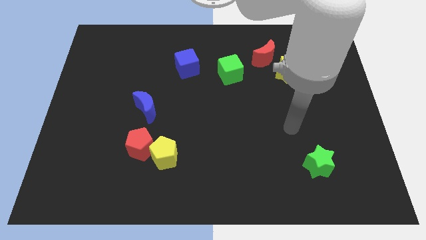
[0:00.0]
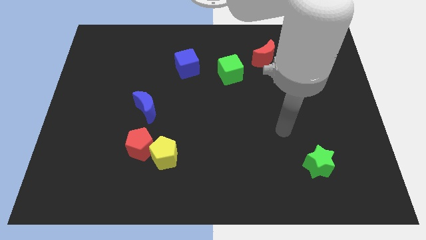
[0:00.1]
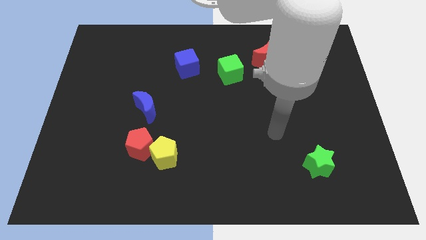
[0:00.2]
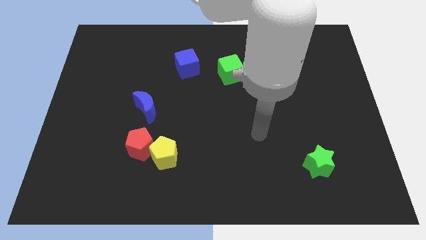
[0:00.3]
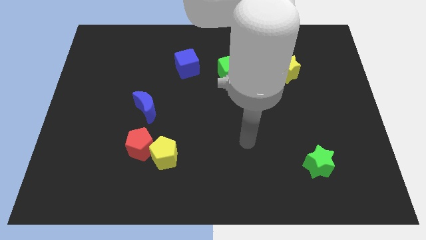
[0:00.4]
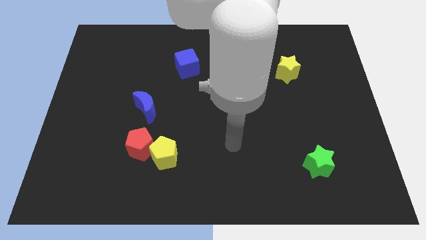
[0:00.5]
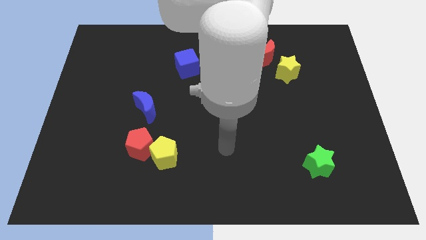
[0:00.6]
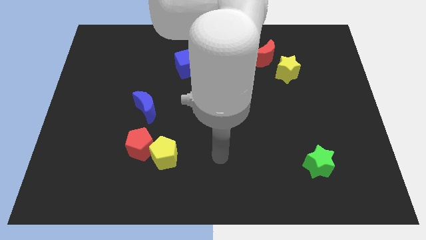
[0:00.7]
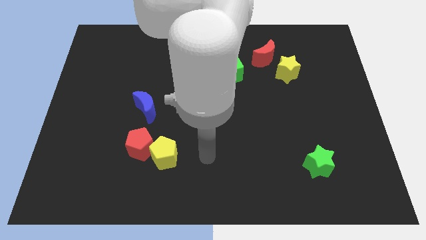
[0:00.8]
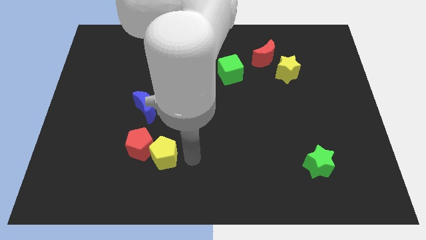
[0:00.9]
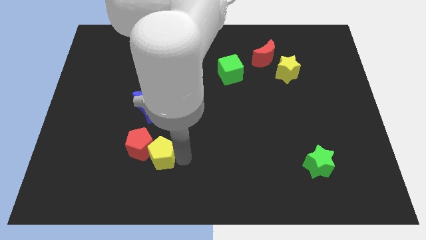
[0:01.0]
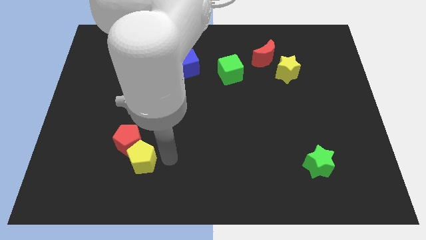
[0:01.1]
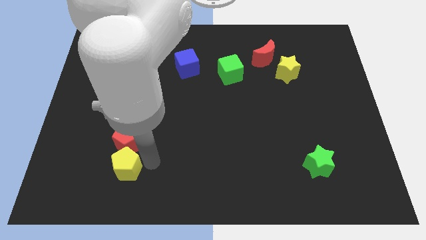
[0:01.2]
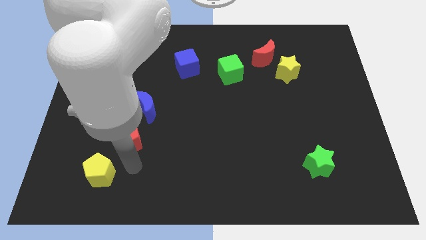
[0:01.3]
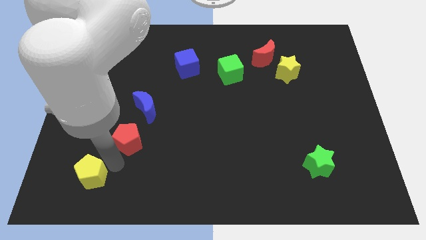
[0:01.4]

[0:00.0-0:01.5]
move the red pentagon away from the yellow pentagon

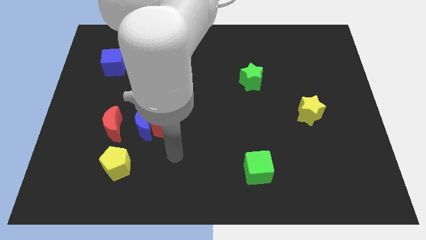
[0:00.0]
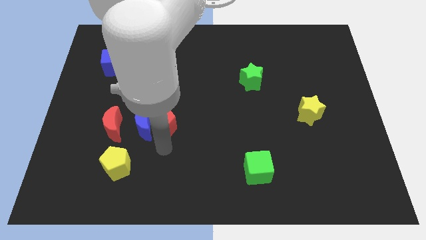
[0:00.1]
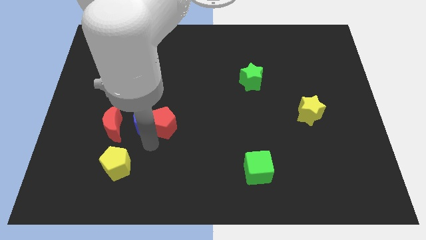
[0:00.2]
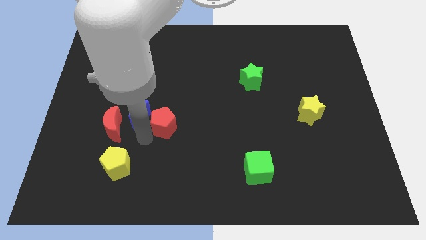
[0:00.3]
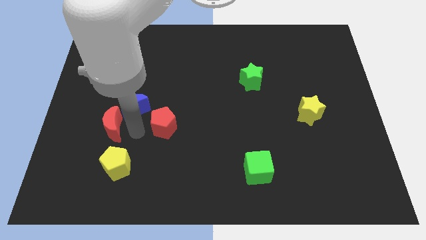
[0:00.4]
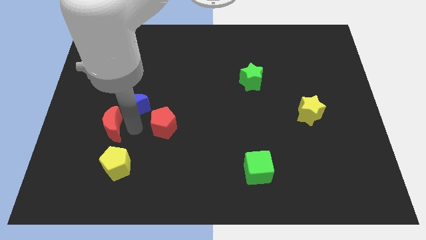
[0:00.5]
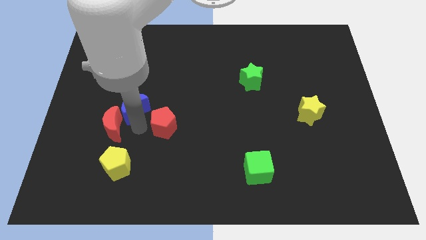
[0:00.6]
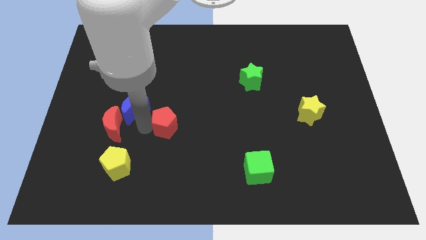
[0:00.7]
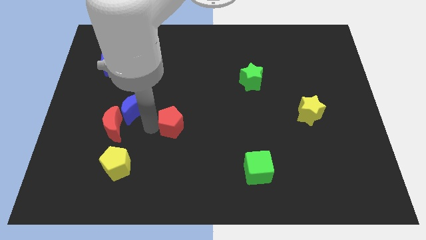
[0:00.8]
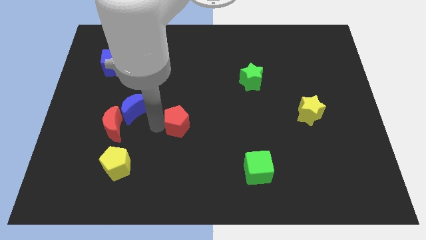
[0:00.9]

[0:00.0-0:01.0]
move the red pentagon away from the blue moon

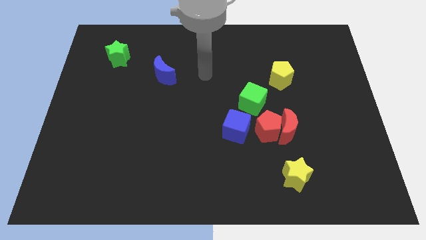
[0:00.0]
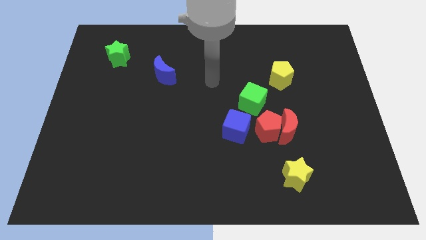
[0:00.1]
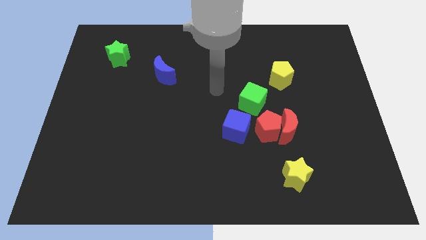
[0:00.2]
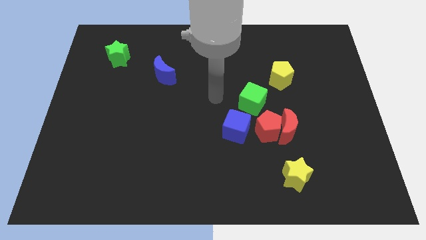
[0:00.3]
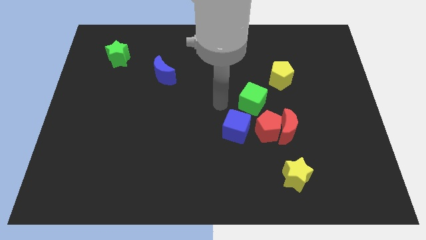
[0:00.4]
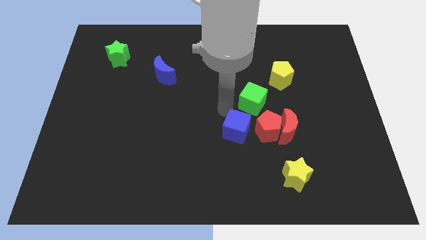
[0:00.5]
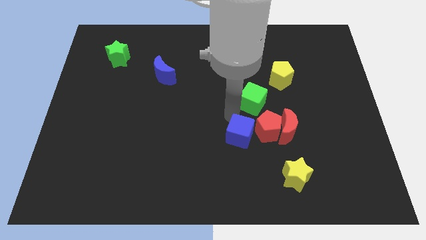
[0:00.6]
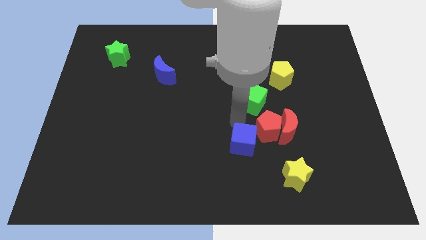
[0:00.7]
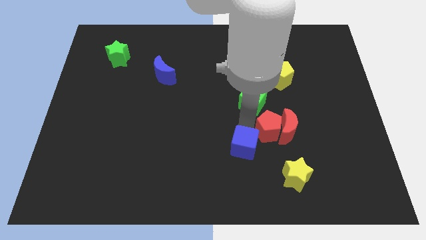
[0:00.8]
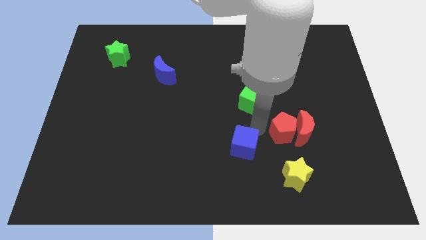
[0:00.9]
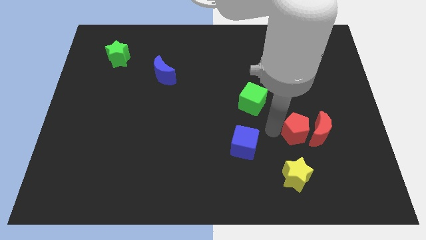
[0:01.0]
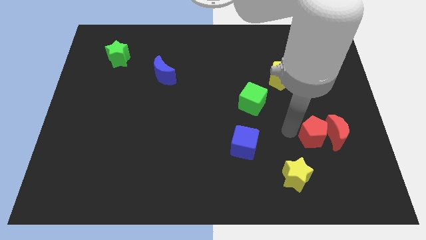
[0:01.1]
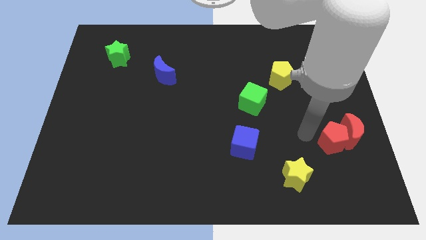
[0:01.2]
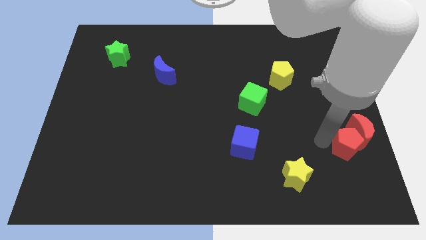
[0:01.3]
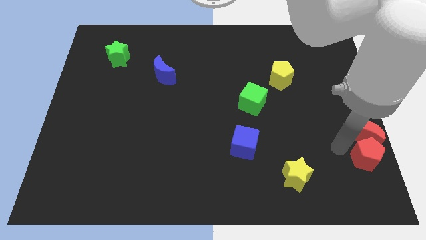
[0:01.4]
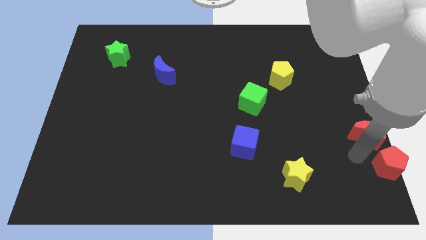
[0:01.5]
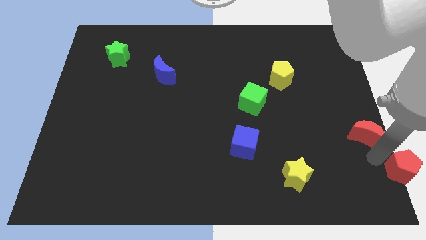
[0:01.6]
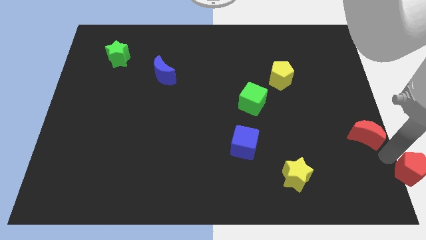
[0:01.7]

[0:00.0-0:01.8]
move the red moon away from the red pentagon

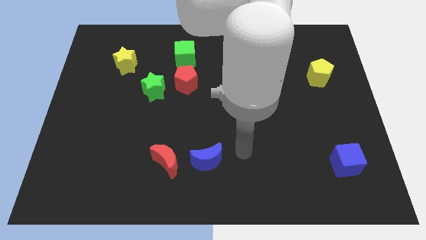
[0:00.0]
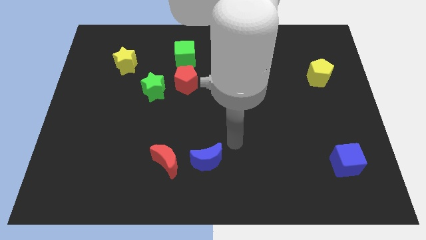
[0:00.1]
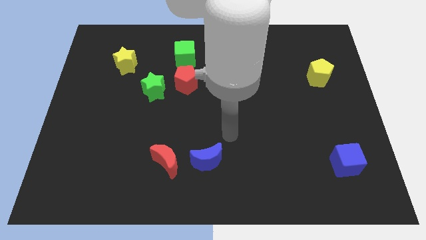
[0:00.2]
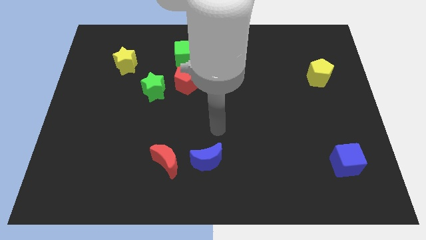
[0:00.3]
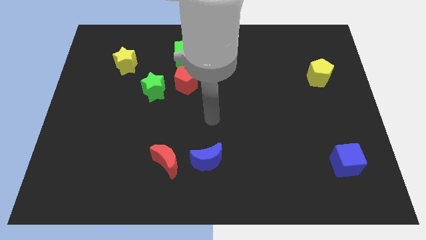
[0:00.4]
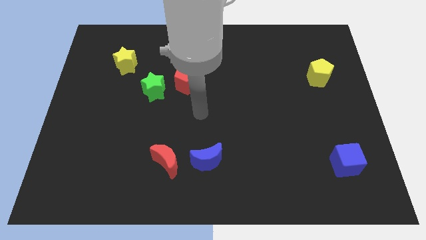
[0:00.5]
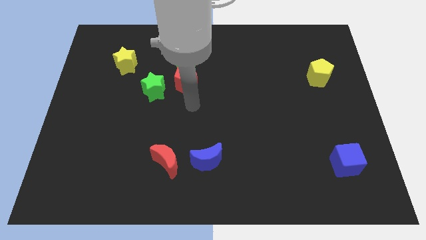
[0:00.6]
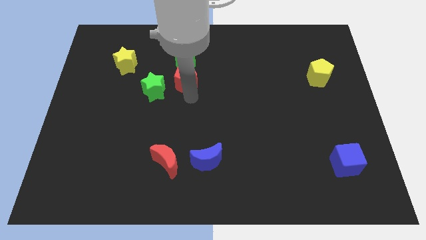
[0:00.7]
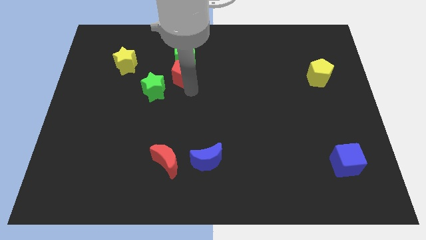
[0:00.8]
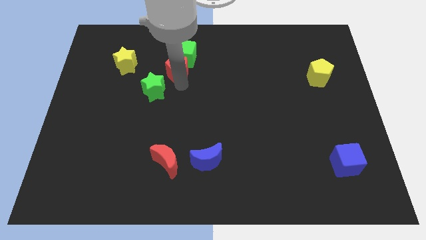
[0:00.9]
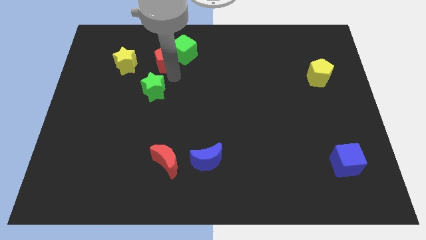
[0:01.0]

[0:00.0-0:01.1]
move the green star away from the red pentagon

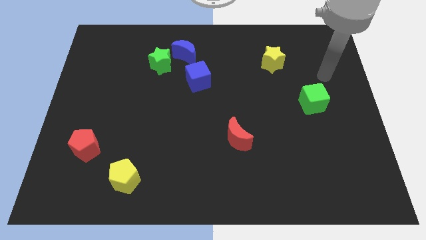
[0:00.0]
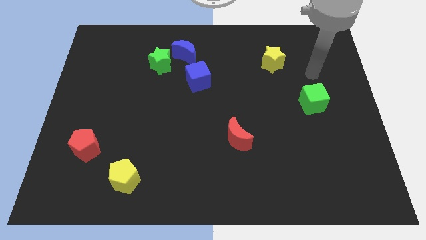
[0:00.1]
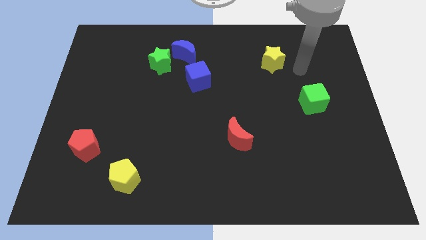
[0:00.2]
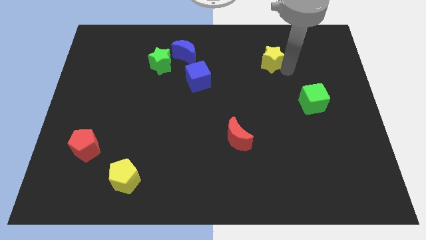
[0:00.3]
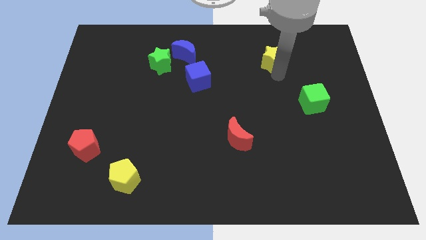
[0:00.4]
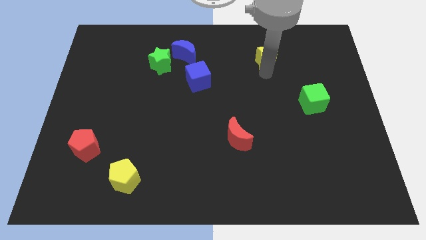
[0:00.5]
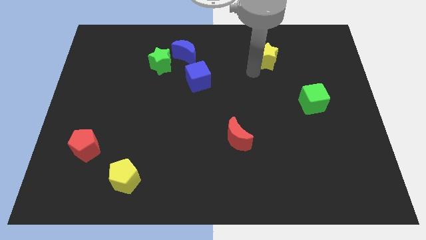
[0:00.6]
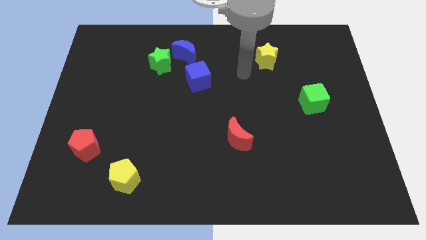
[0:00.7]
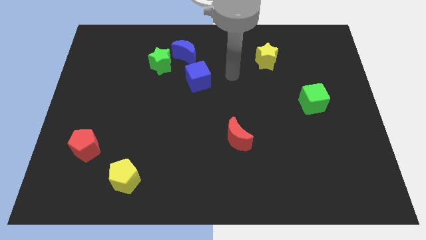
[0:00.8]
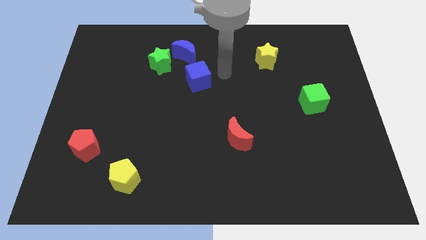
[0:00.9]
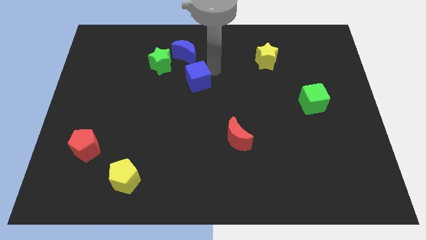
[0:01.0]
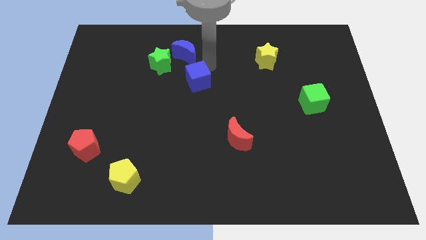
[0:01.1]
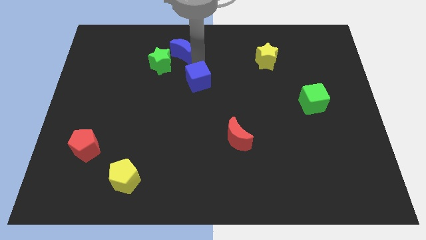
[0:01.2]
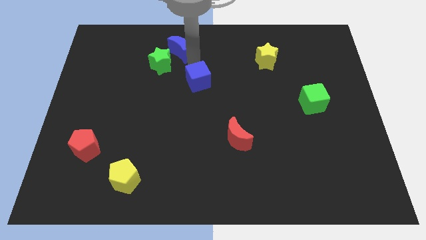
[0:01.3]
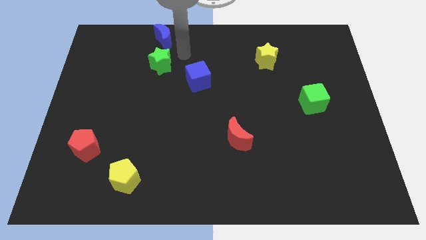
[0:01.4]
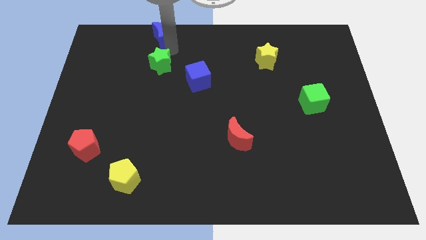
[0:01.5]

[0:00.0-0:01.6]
pull the green star apart from the blue moon

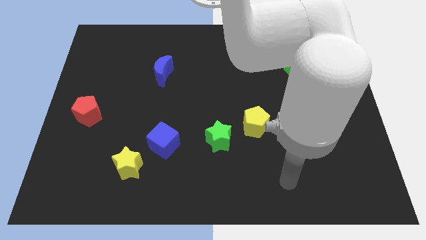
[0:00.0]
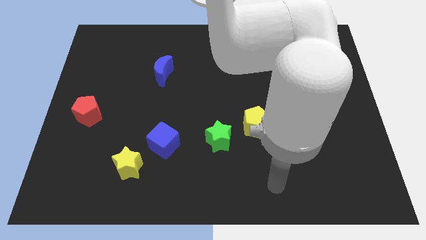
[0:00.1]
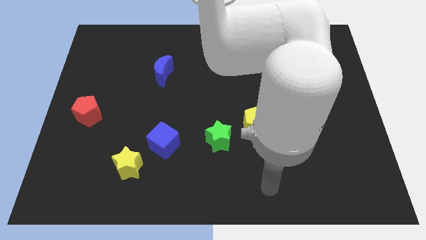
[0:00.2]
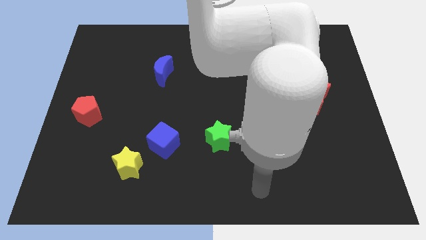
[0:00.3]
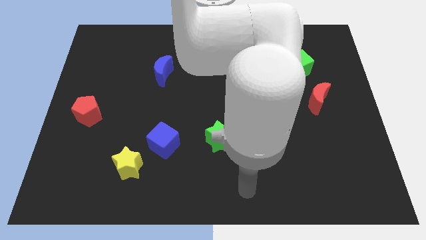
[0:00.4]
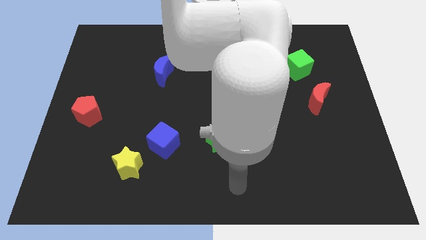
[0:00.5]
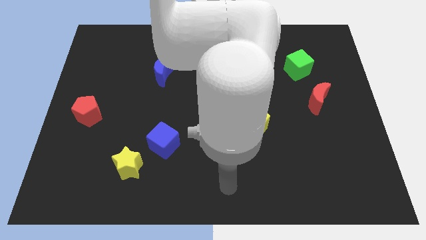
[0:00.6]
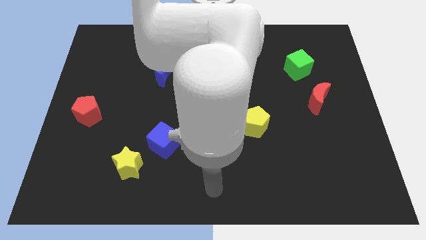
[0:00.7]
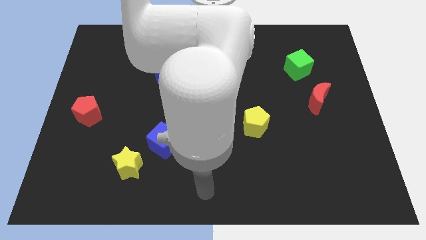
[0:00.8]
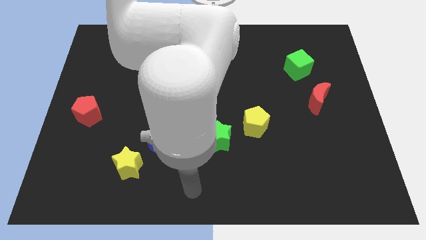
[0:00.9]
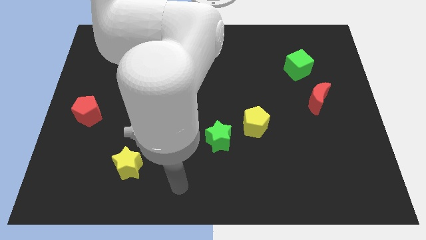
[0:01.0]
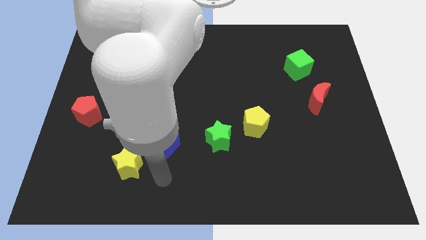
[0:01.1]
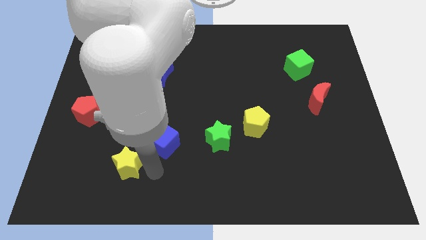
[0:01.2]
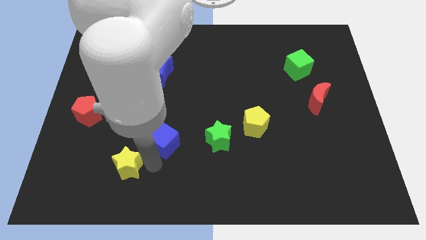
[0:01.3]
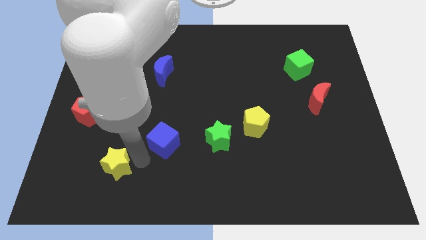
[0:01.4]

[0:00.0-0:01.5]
move the blue cube away from the yellow star

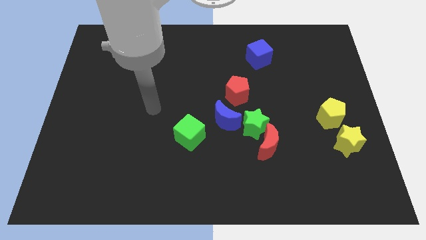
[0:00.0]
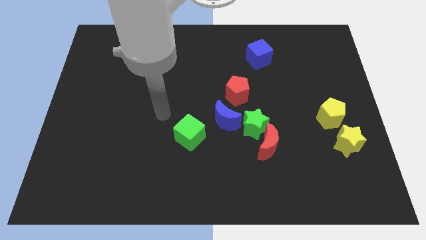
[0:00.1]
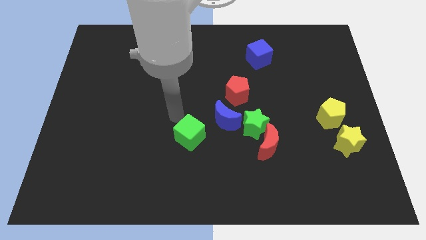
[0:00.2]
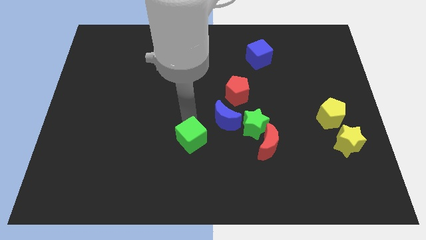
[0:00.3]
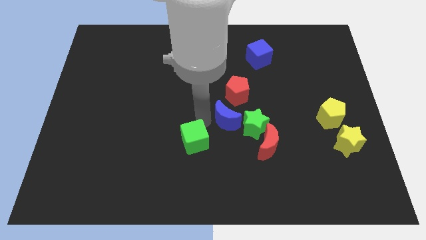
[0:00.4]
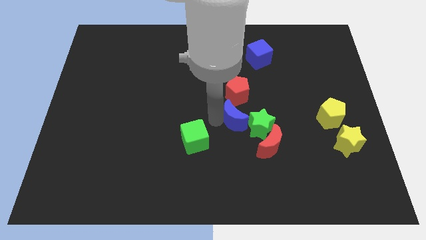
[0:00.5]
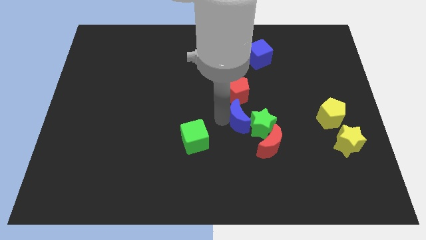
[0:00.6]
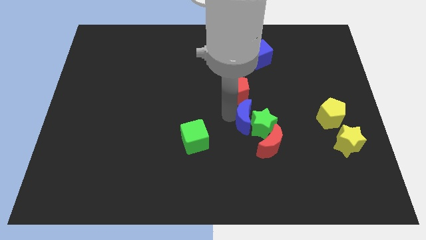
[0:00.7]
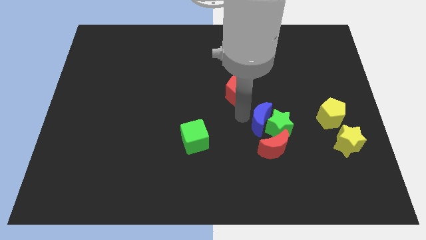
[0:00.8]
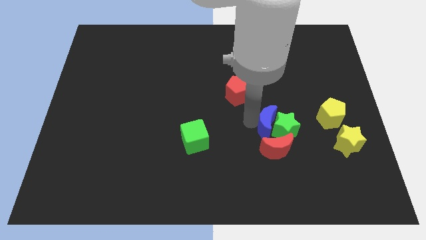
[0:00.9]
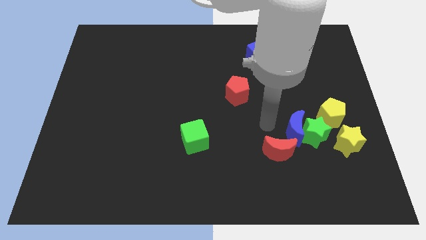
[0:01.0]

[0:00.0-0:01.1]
pull the red moon apart from the green star
